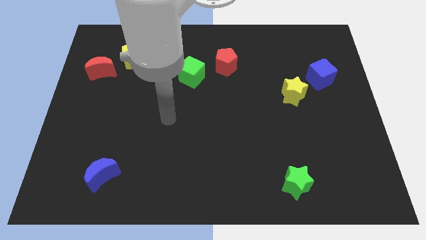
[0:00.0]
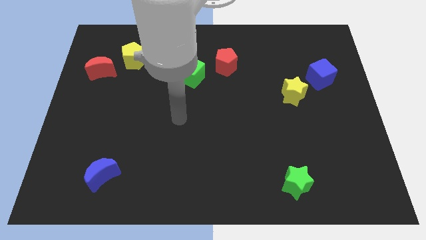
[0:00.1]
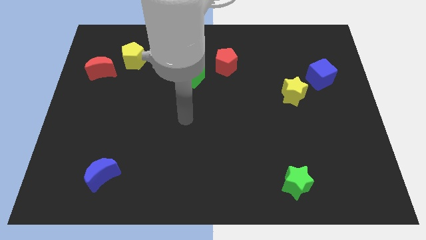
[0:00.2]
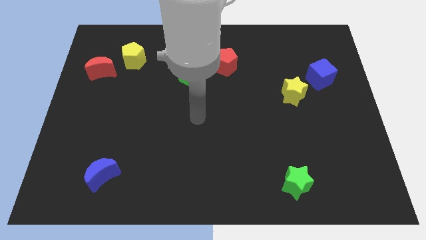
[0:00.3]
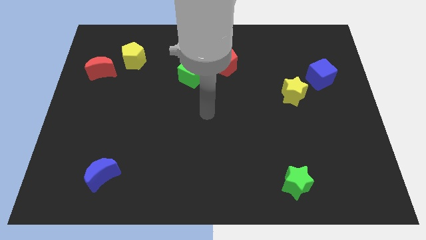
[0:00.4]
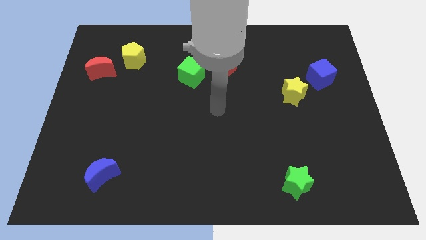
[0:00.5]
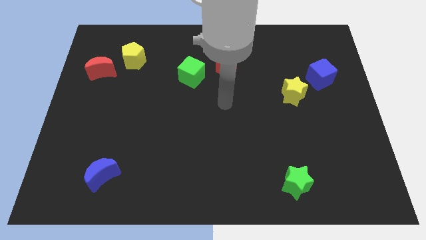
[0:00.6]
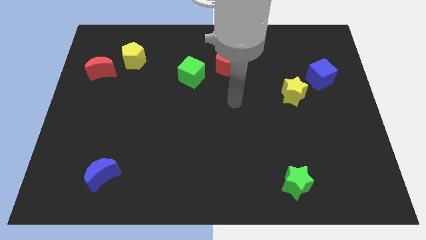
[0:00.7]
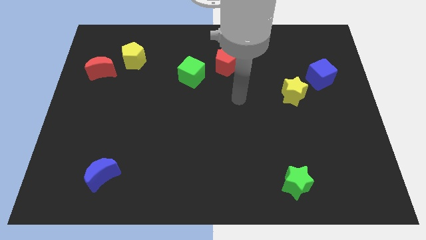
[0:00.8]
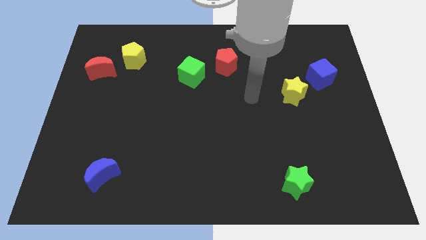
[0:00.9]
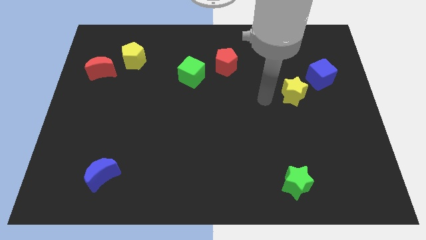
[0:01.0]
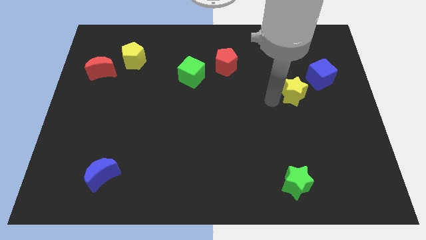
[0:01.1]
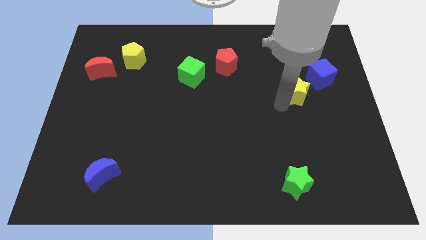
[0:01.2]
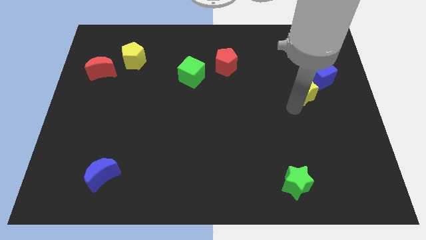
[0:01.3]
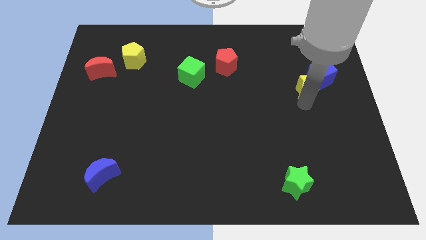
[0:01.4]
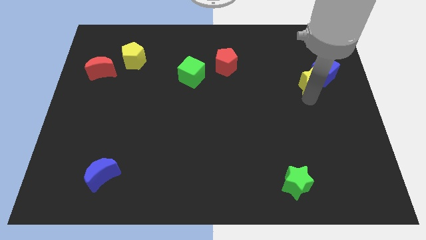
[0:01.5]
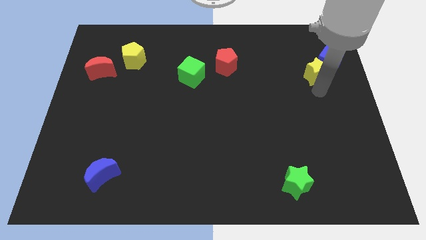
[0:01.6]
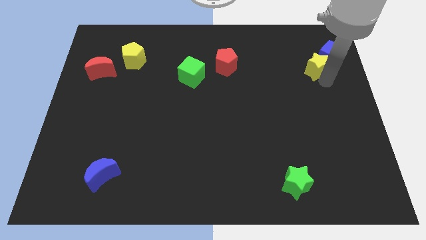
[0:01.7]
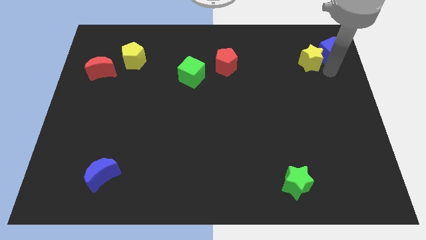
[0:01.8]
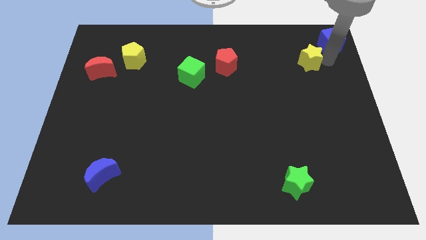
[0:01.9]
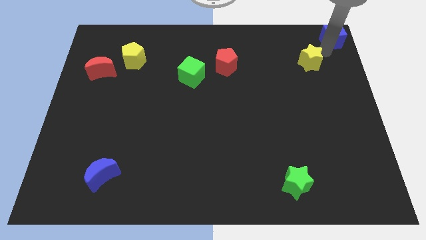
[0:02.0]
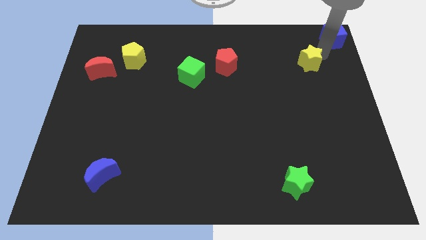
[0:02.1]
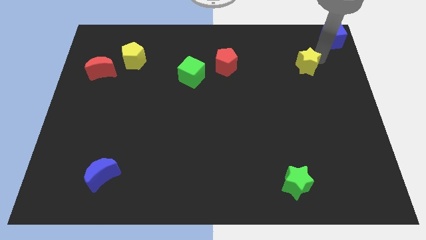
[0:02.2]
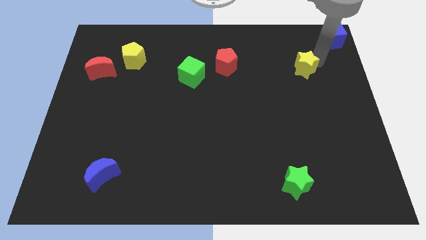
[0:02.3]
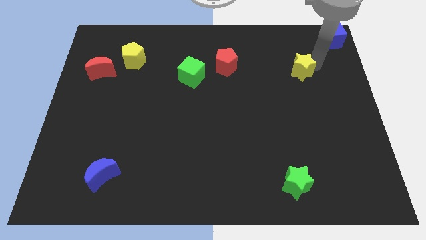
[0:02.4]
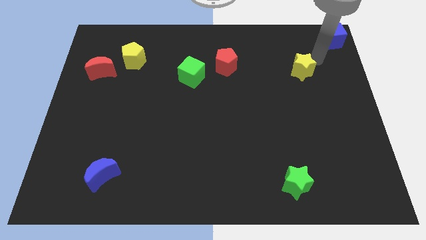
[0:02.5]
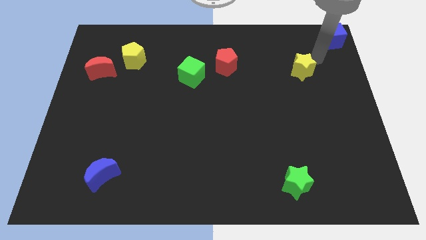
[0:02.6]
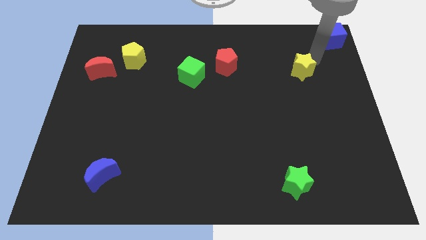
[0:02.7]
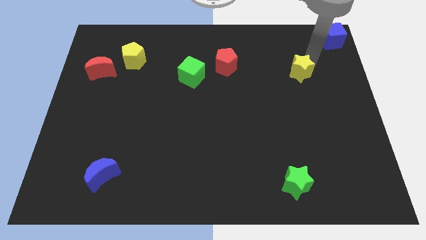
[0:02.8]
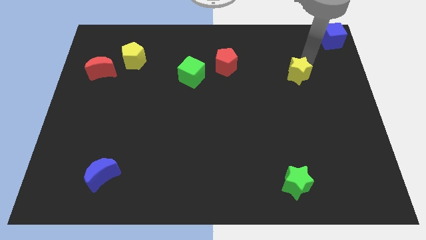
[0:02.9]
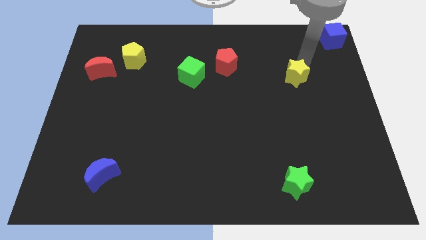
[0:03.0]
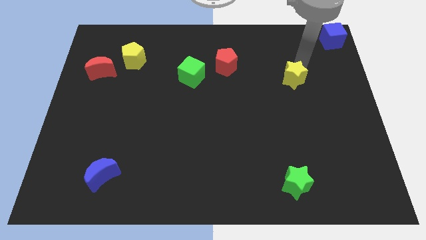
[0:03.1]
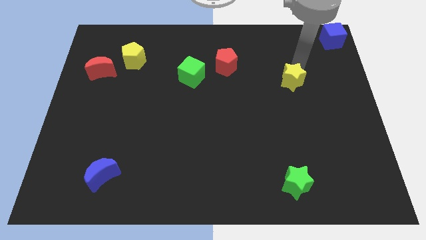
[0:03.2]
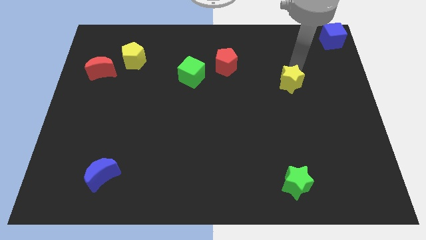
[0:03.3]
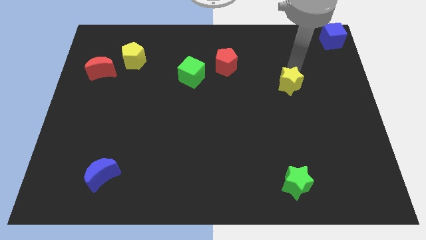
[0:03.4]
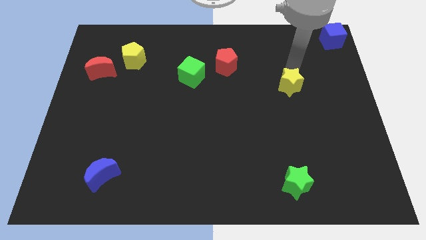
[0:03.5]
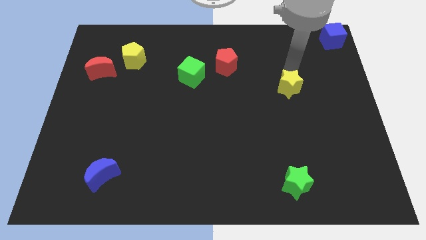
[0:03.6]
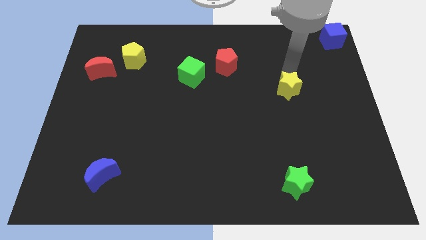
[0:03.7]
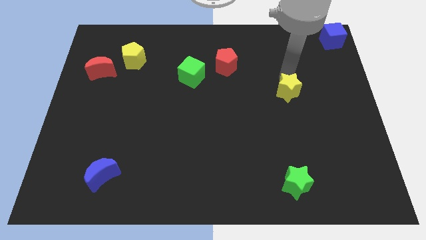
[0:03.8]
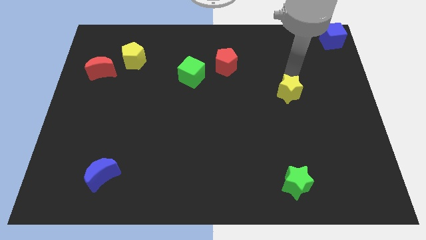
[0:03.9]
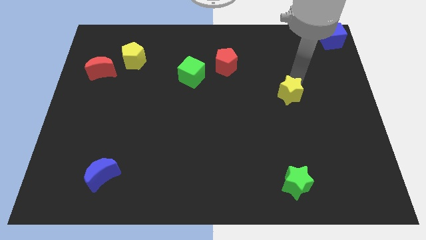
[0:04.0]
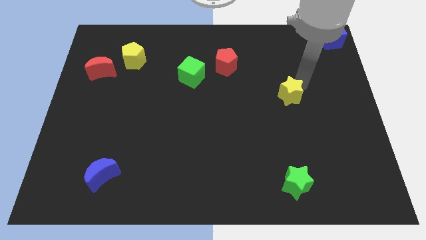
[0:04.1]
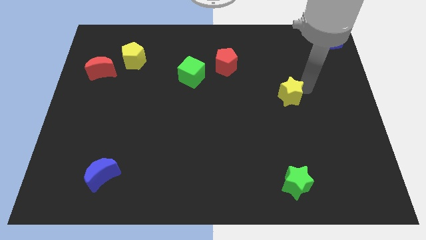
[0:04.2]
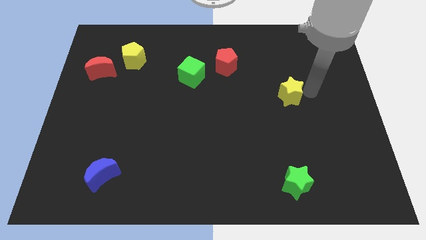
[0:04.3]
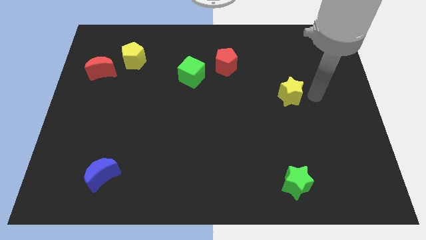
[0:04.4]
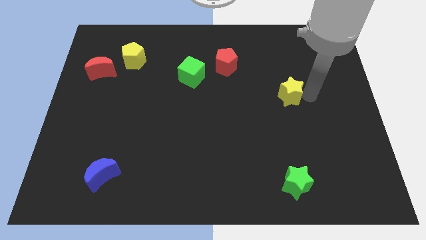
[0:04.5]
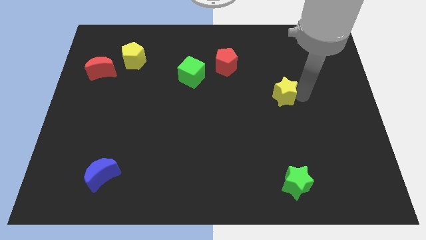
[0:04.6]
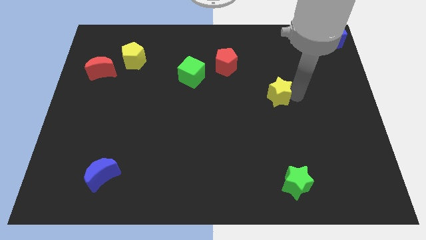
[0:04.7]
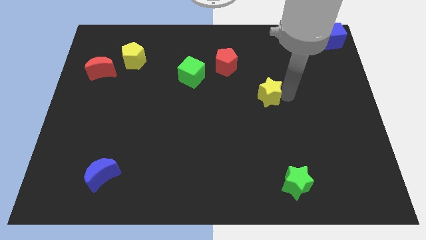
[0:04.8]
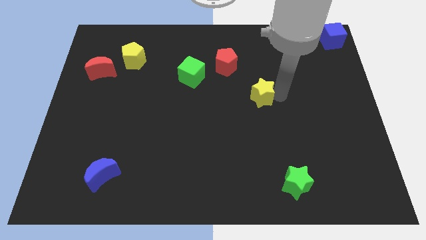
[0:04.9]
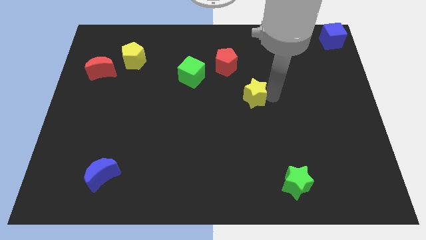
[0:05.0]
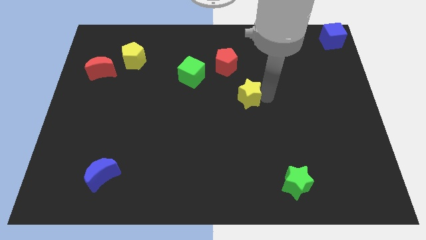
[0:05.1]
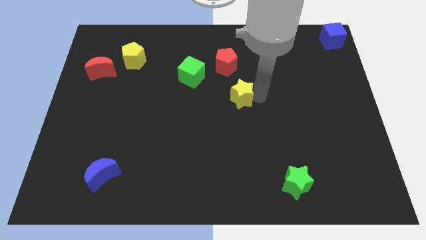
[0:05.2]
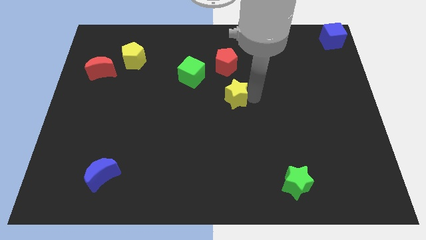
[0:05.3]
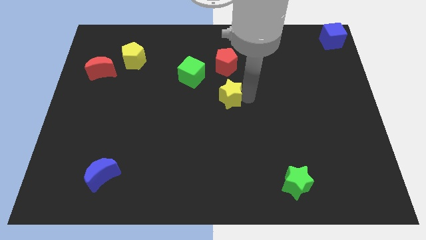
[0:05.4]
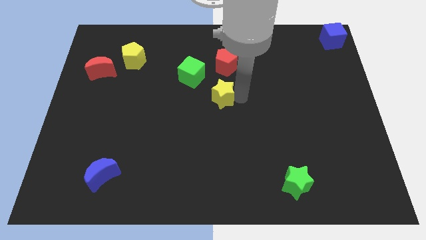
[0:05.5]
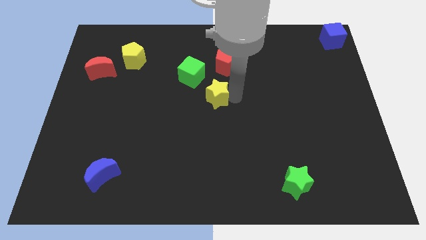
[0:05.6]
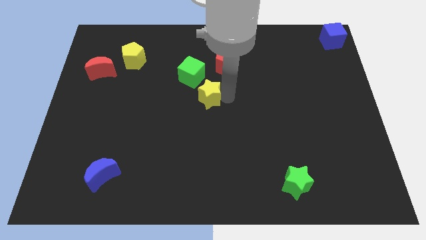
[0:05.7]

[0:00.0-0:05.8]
move the yellow star to the left

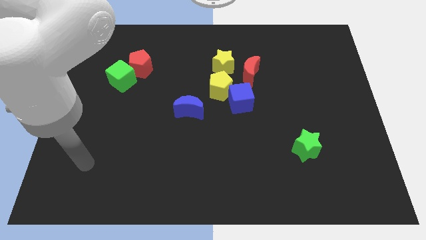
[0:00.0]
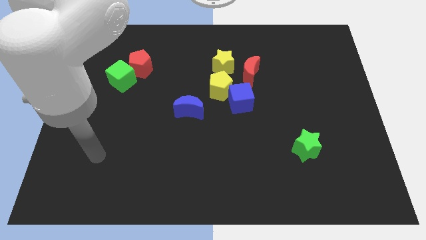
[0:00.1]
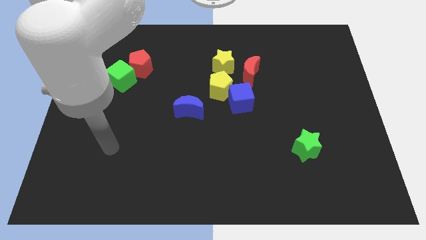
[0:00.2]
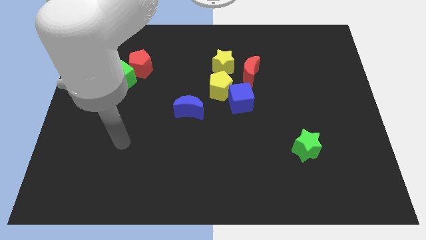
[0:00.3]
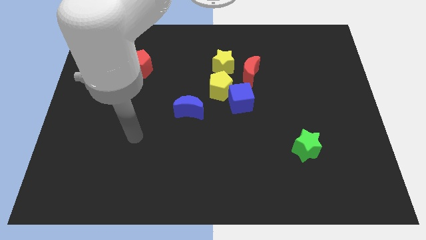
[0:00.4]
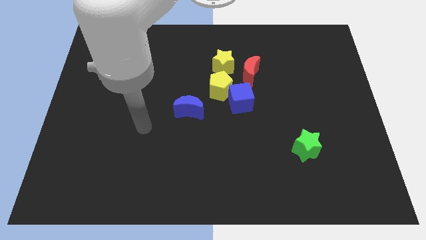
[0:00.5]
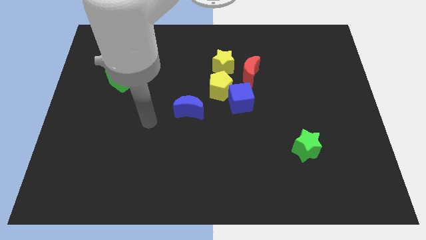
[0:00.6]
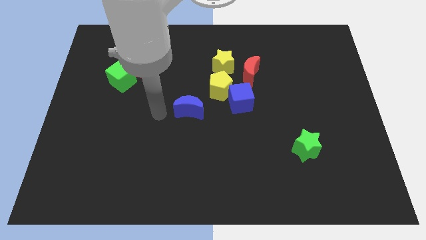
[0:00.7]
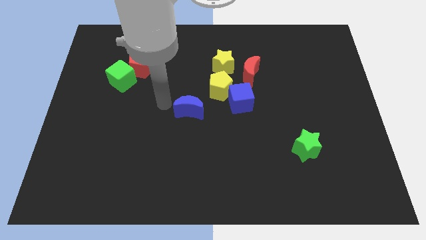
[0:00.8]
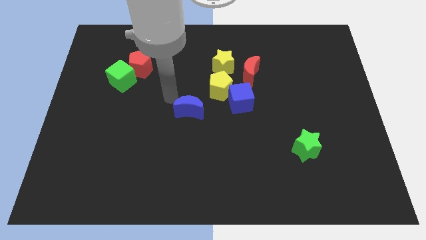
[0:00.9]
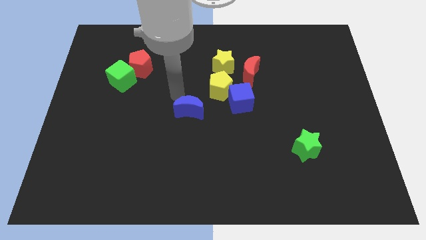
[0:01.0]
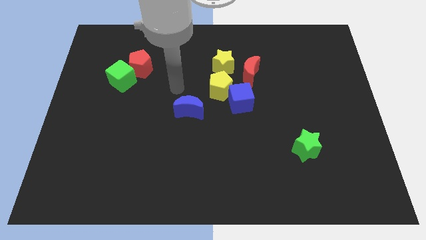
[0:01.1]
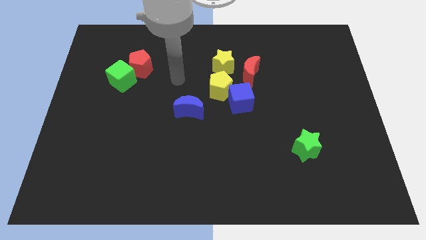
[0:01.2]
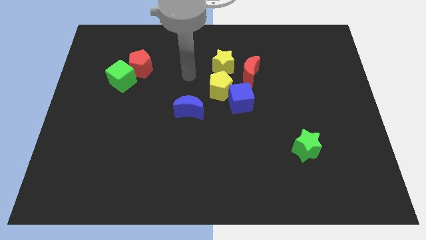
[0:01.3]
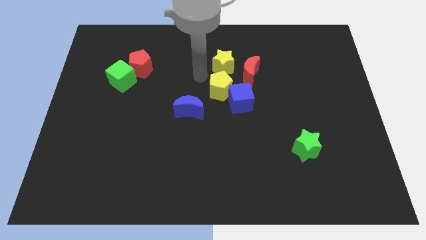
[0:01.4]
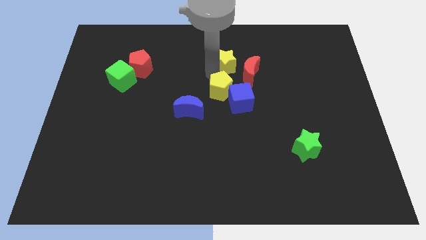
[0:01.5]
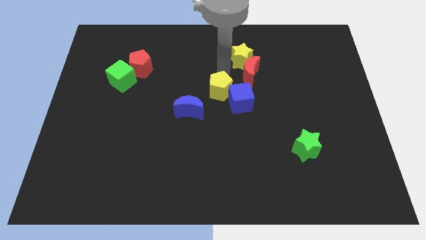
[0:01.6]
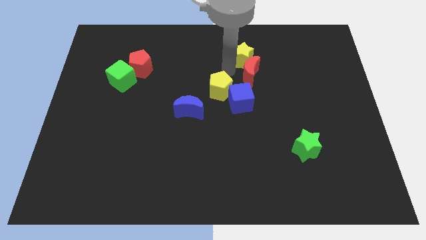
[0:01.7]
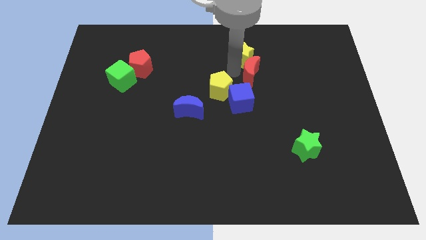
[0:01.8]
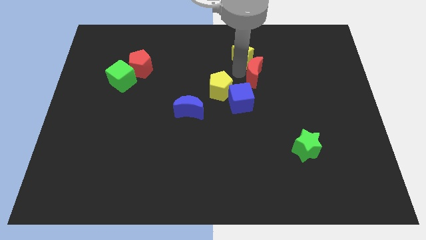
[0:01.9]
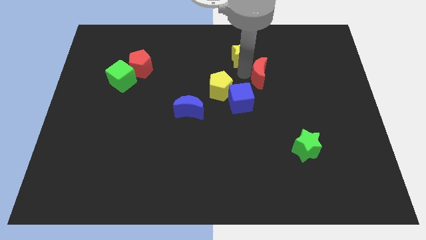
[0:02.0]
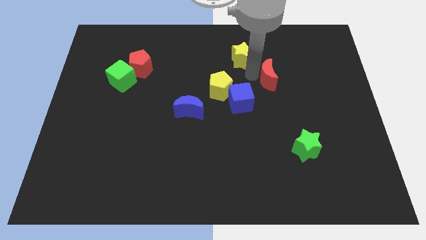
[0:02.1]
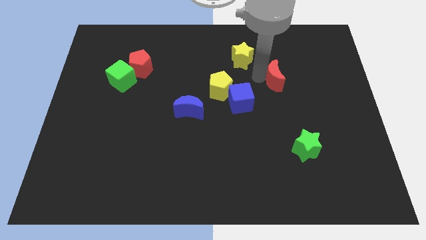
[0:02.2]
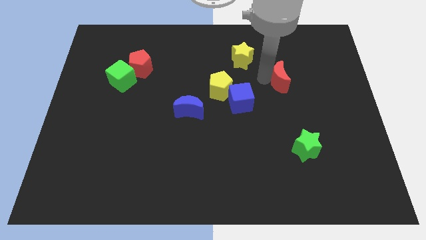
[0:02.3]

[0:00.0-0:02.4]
slide the red moon to the right somewhat
